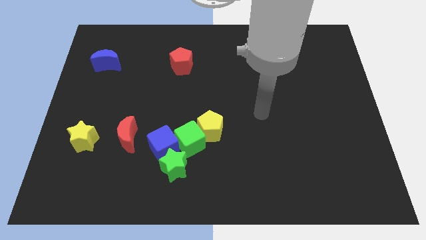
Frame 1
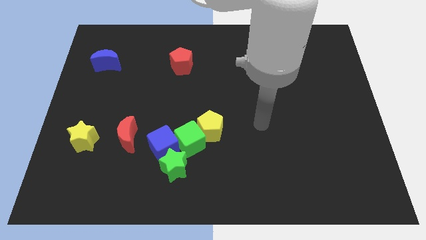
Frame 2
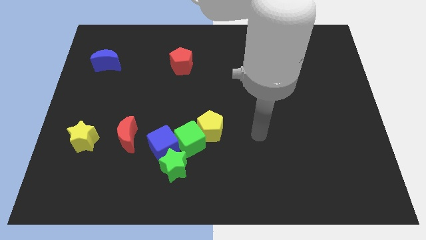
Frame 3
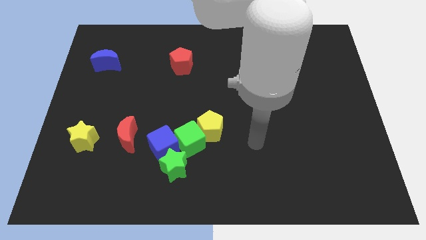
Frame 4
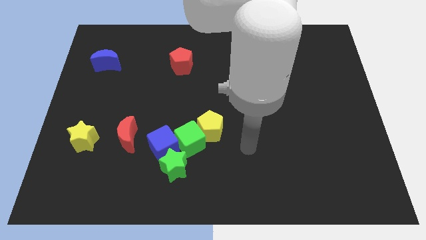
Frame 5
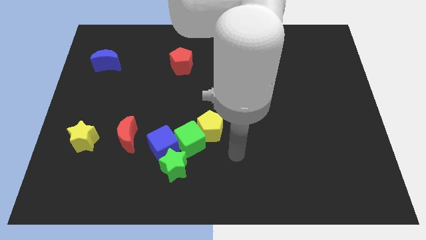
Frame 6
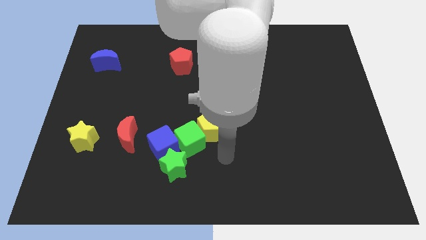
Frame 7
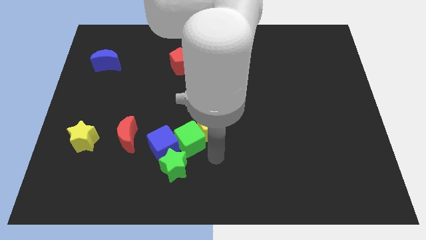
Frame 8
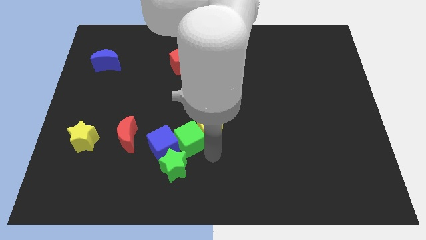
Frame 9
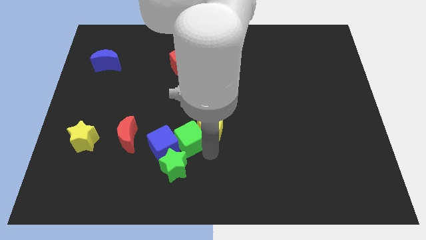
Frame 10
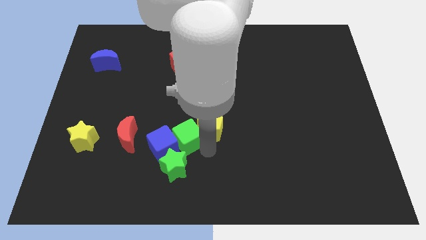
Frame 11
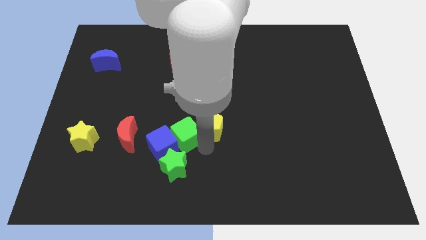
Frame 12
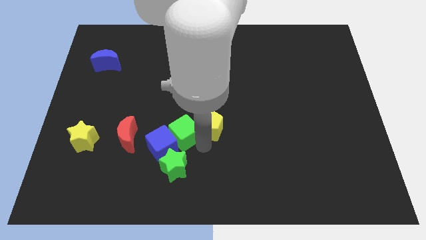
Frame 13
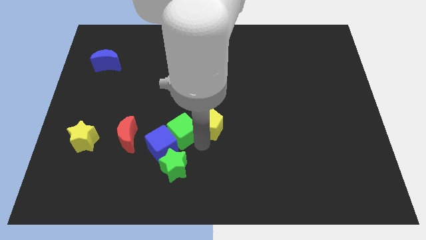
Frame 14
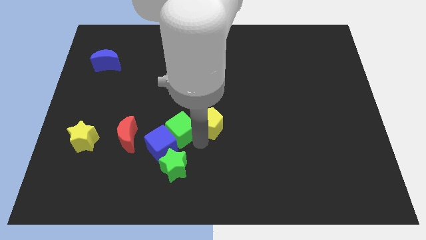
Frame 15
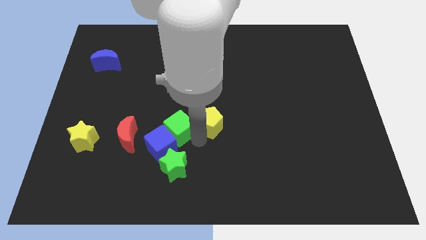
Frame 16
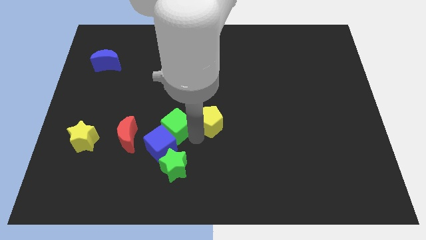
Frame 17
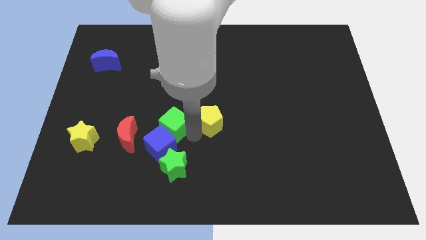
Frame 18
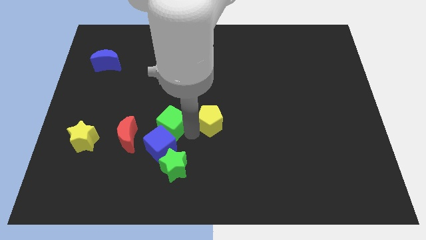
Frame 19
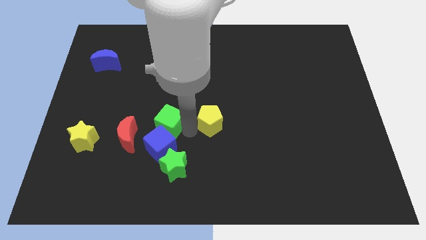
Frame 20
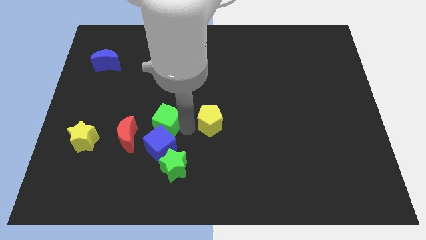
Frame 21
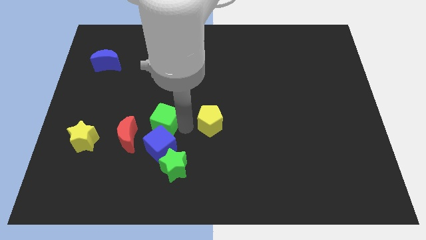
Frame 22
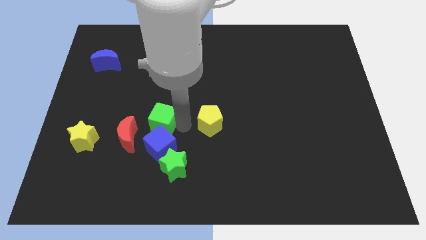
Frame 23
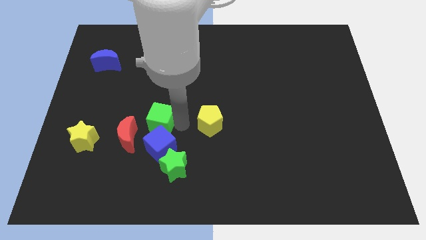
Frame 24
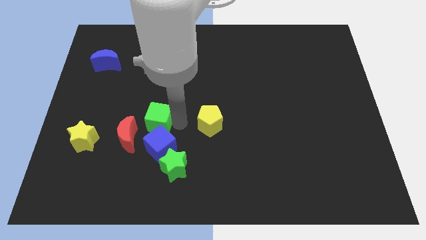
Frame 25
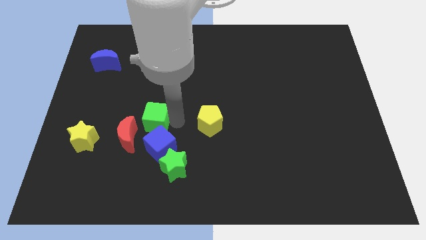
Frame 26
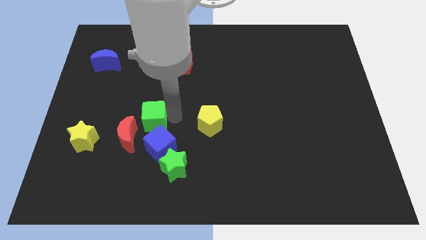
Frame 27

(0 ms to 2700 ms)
move the green cube a little to the left

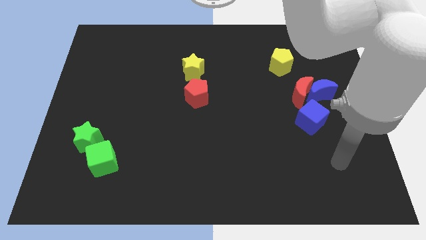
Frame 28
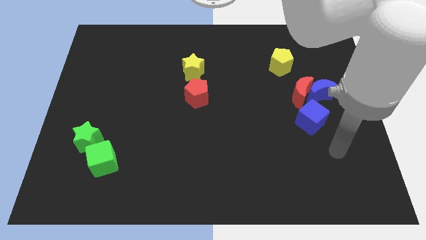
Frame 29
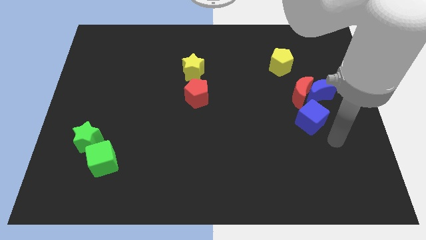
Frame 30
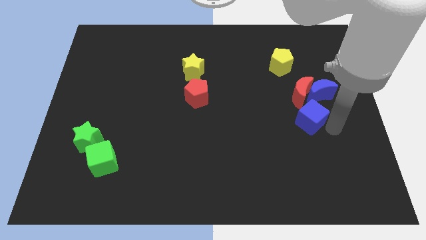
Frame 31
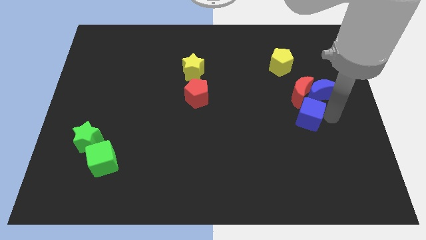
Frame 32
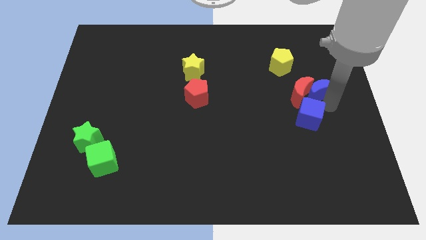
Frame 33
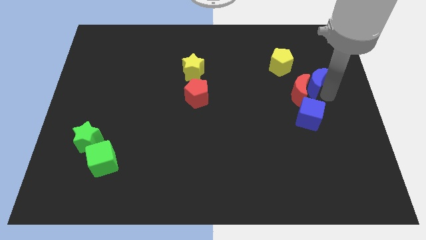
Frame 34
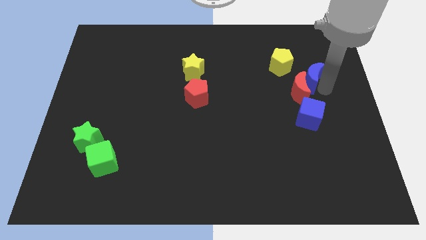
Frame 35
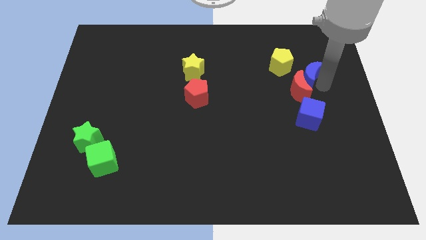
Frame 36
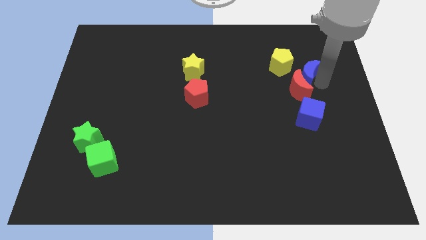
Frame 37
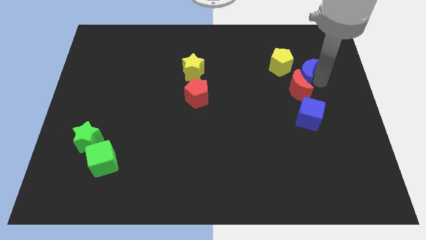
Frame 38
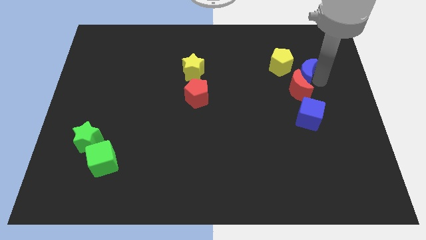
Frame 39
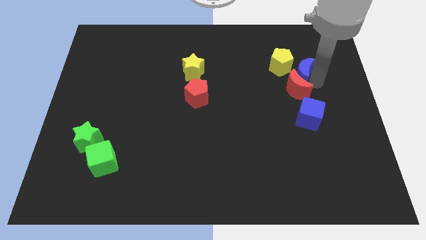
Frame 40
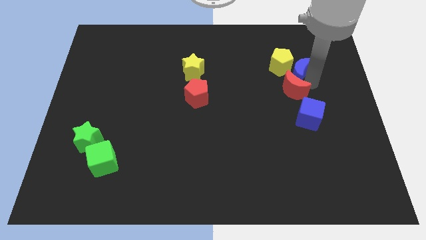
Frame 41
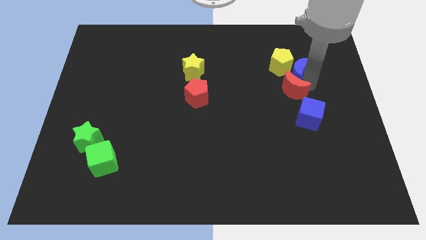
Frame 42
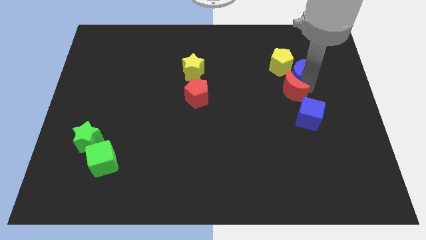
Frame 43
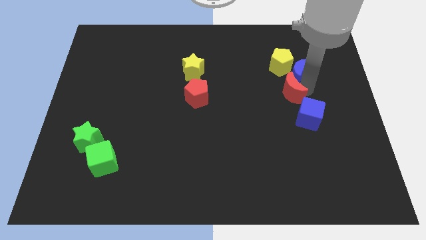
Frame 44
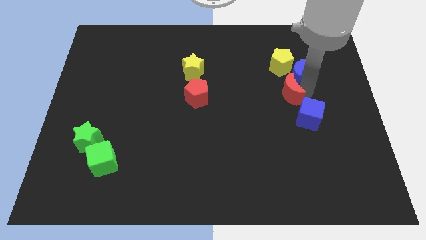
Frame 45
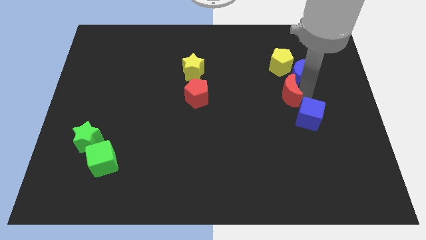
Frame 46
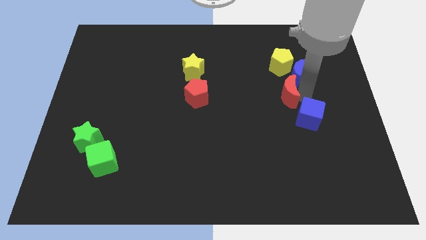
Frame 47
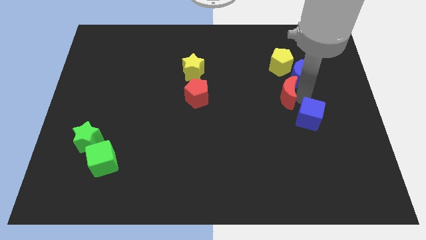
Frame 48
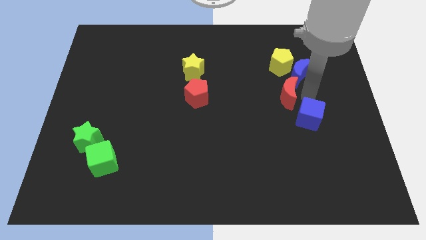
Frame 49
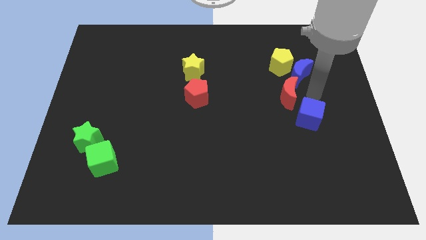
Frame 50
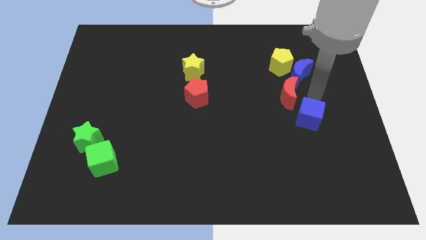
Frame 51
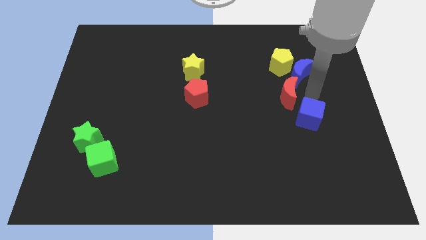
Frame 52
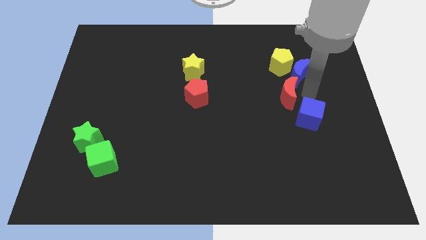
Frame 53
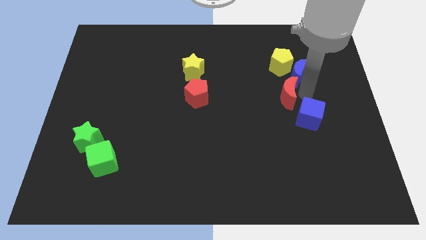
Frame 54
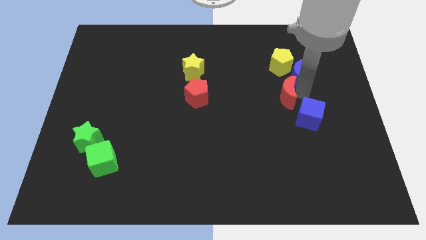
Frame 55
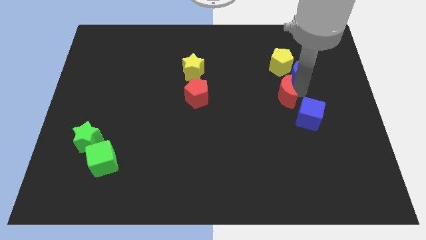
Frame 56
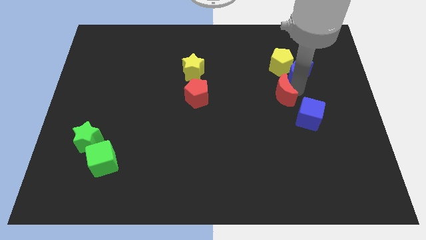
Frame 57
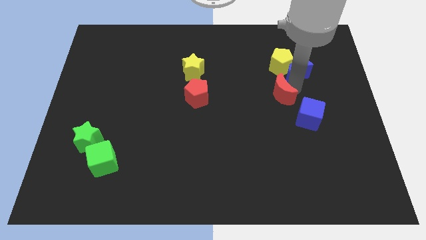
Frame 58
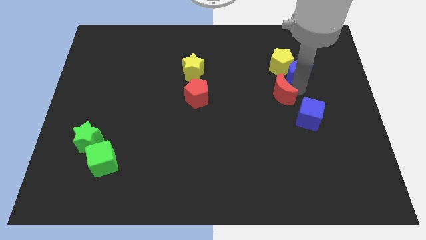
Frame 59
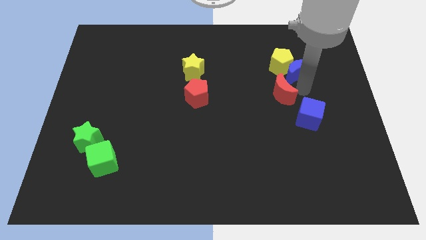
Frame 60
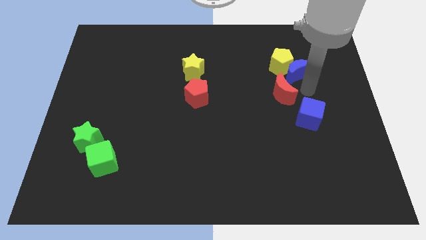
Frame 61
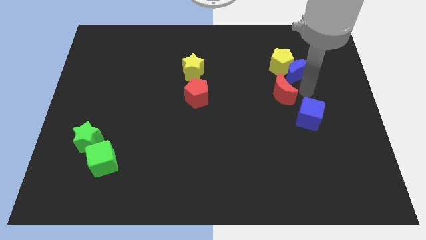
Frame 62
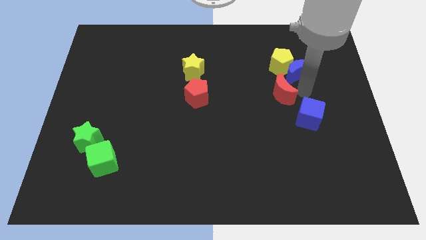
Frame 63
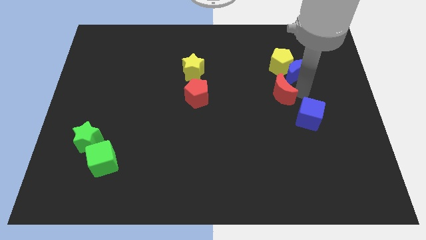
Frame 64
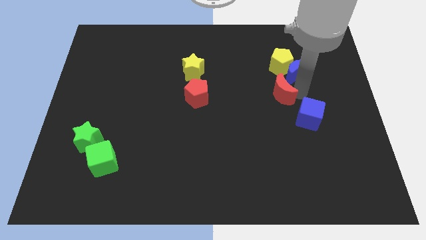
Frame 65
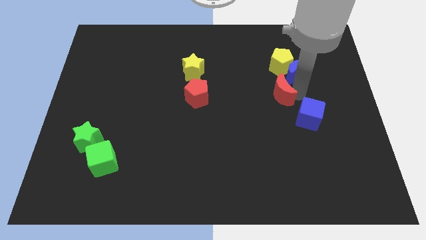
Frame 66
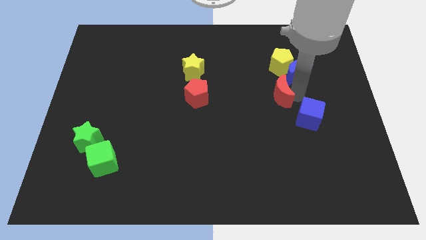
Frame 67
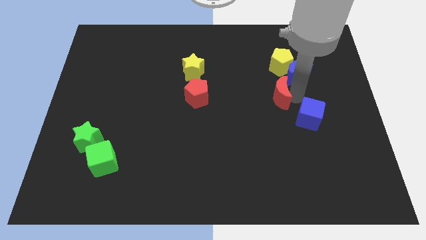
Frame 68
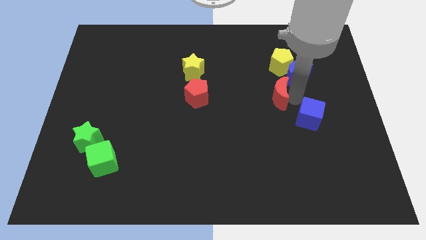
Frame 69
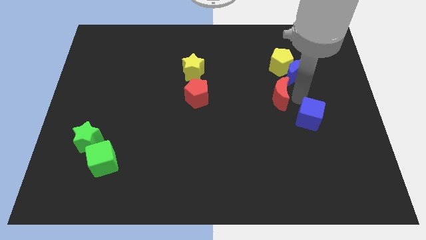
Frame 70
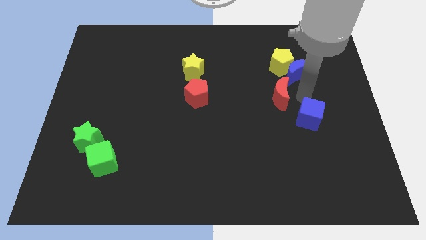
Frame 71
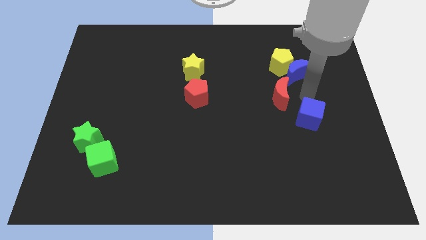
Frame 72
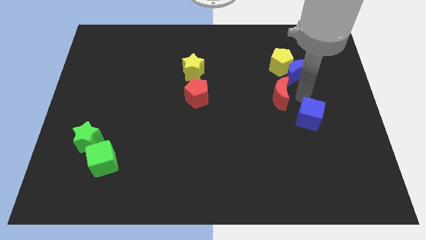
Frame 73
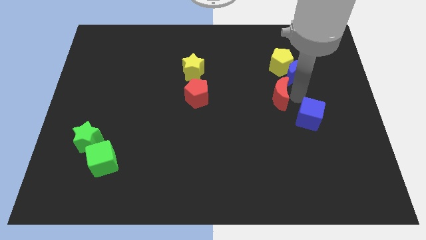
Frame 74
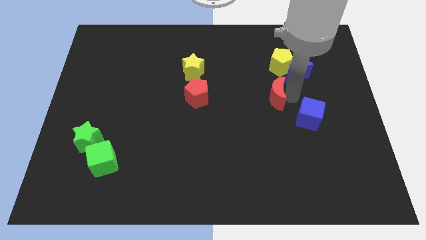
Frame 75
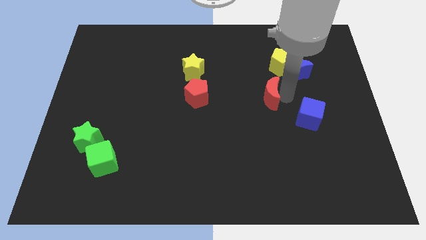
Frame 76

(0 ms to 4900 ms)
move the red moon to the left somewhat

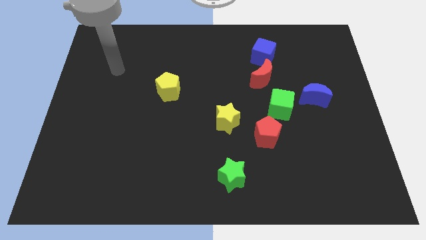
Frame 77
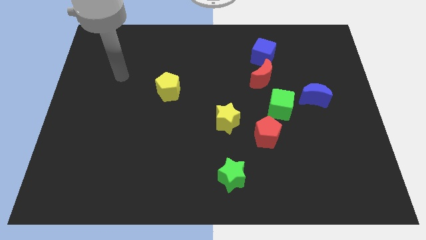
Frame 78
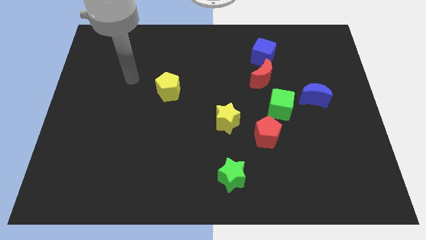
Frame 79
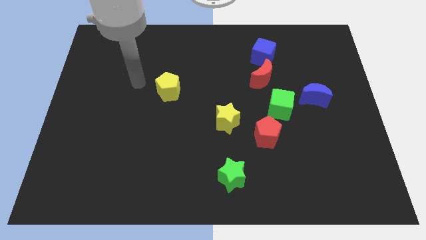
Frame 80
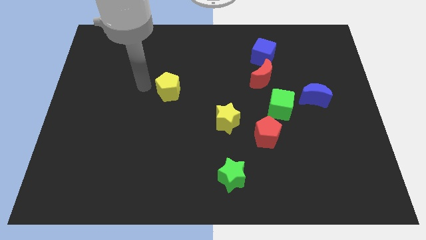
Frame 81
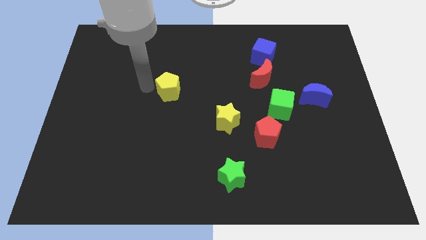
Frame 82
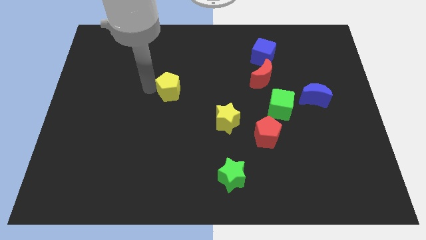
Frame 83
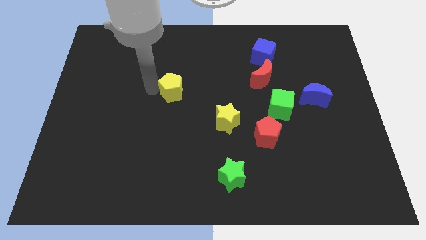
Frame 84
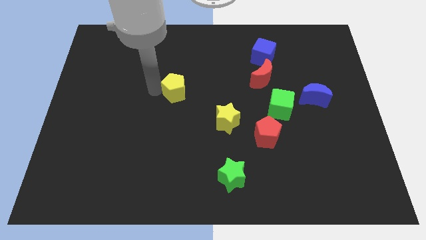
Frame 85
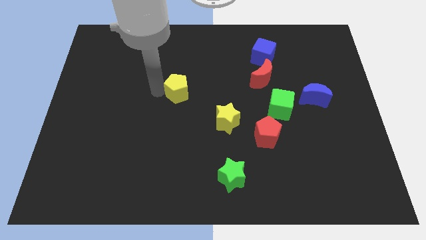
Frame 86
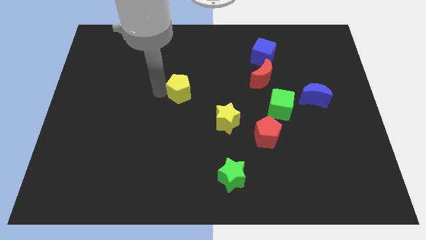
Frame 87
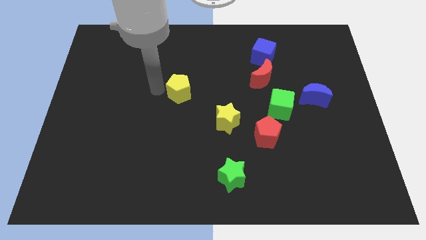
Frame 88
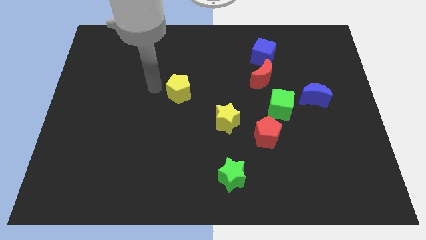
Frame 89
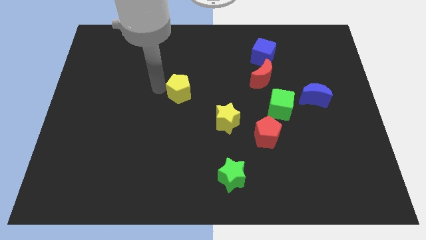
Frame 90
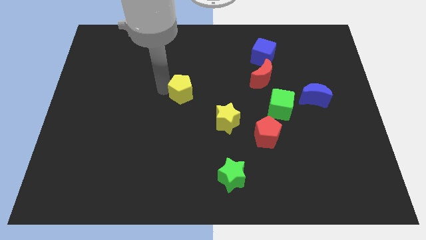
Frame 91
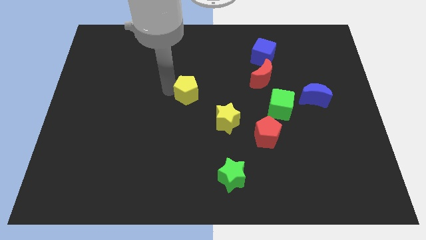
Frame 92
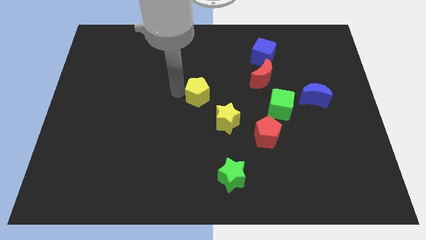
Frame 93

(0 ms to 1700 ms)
move the yellow pentagon to the right slightly
